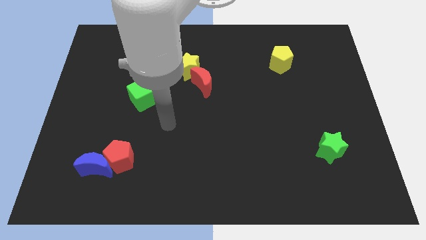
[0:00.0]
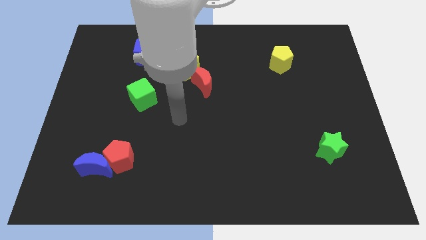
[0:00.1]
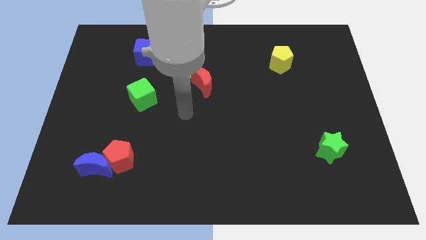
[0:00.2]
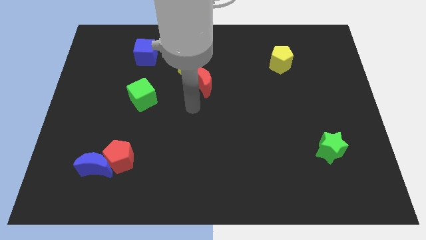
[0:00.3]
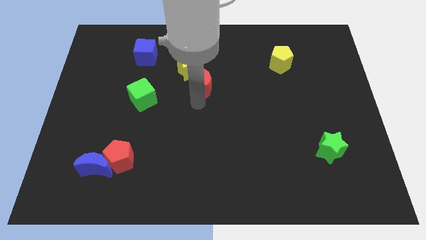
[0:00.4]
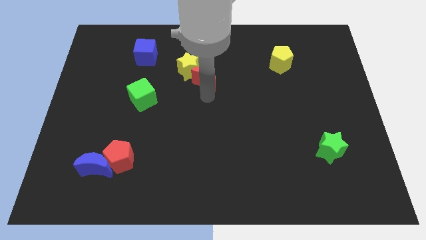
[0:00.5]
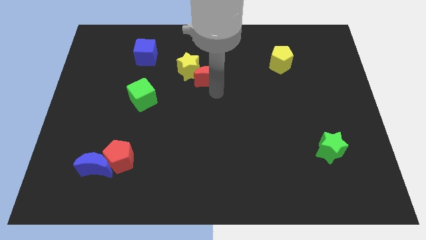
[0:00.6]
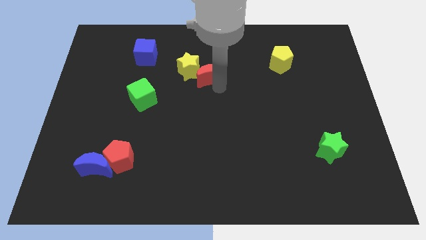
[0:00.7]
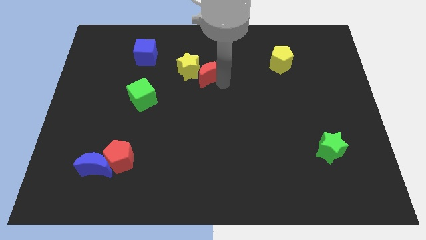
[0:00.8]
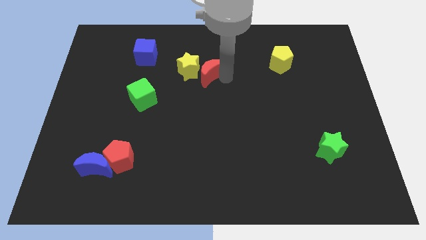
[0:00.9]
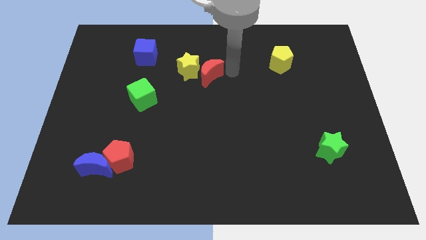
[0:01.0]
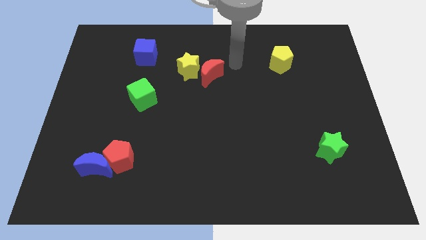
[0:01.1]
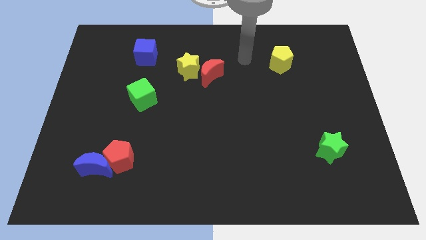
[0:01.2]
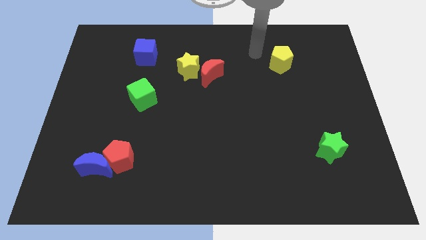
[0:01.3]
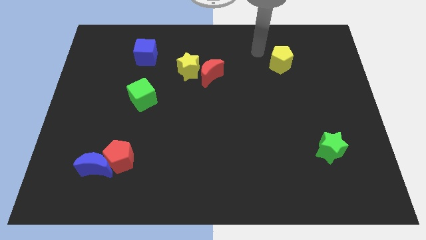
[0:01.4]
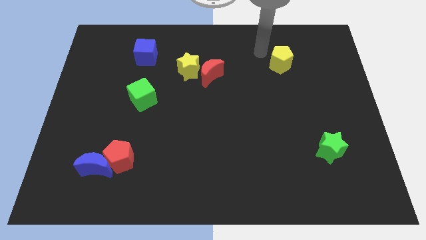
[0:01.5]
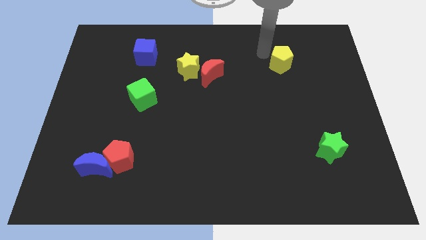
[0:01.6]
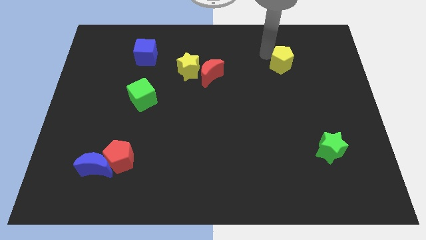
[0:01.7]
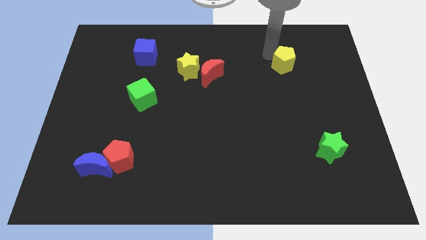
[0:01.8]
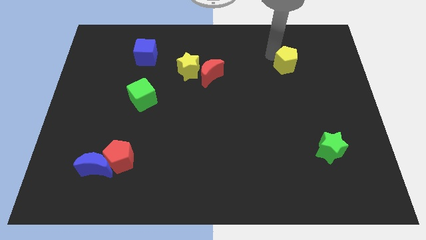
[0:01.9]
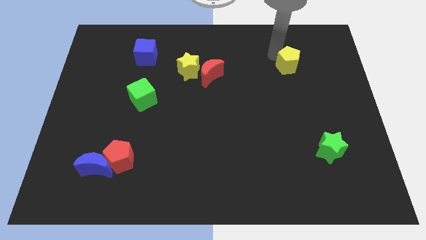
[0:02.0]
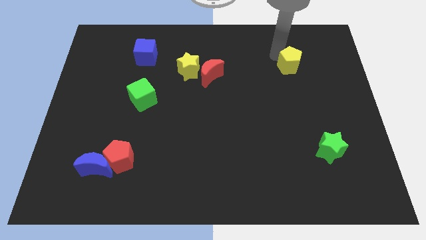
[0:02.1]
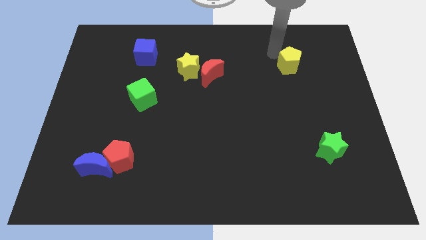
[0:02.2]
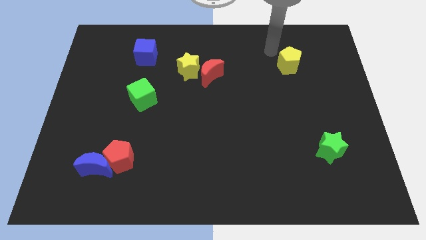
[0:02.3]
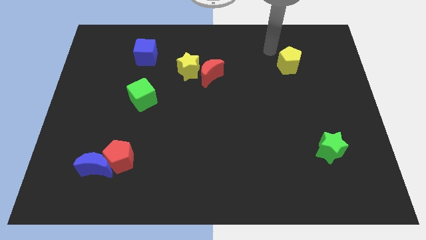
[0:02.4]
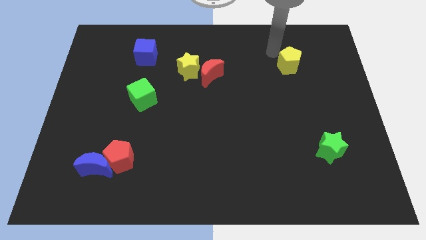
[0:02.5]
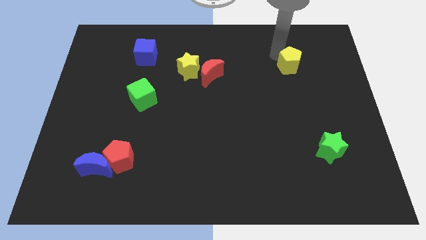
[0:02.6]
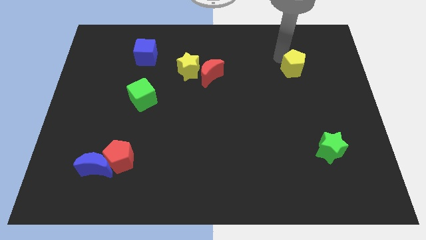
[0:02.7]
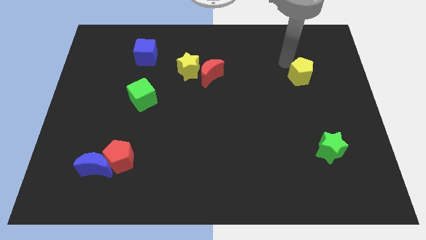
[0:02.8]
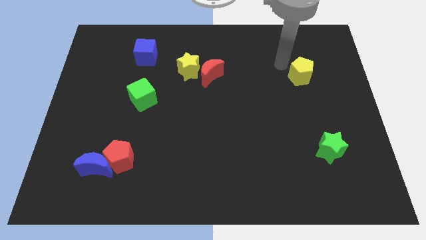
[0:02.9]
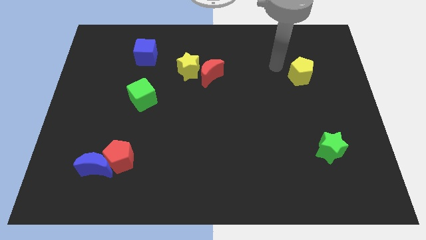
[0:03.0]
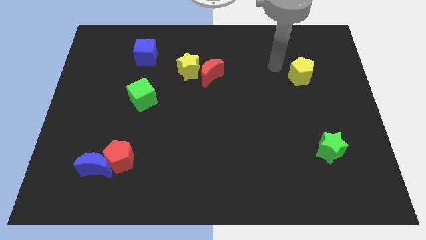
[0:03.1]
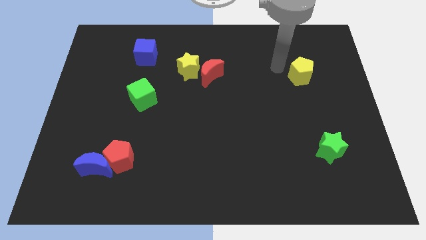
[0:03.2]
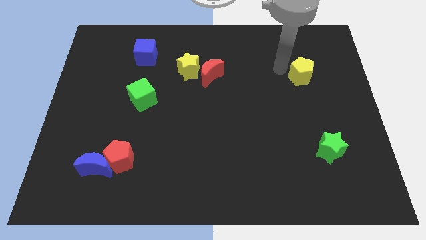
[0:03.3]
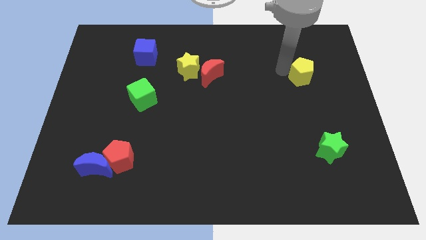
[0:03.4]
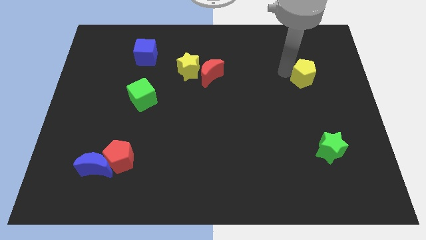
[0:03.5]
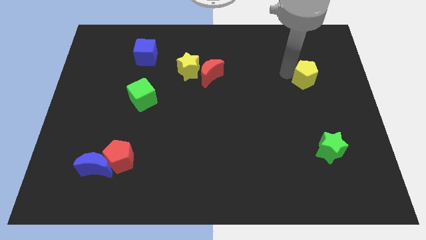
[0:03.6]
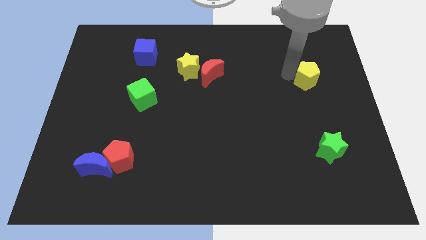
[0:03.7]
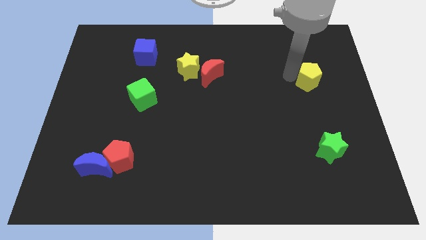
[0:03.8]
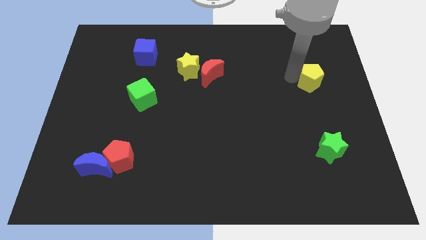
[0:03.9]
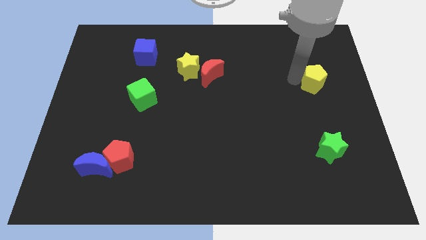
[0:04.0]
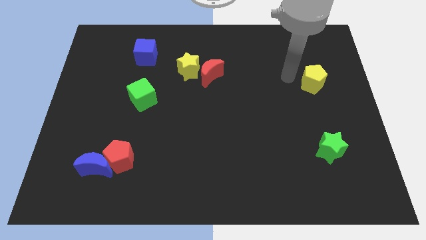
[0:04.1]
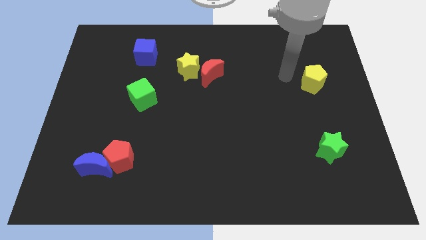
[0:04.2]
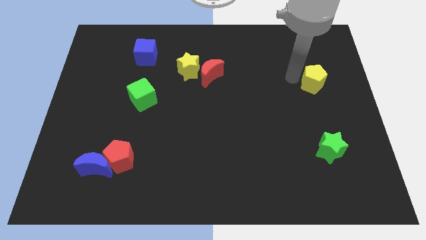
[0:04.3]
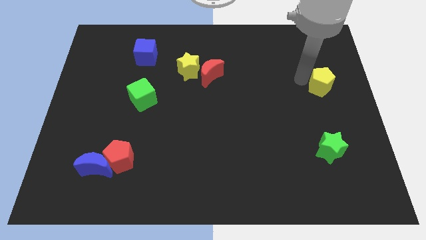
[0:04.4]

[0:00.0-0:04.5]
move the yellow pentagon to the right side of the board

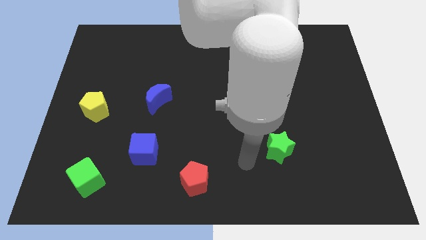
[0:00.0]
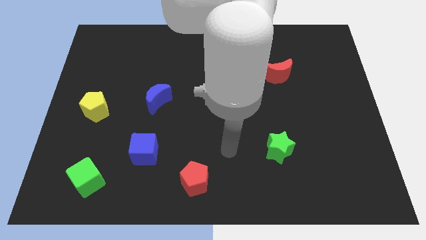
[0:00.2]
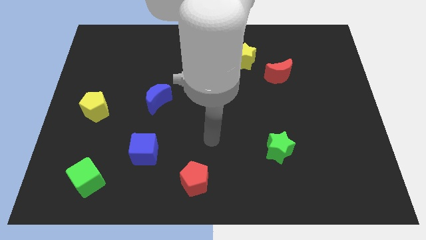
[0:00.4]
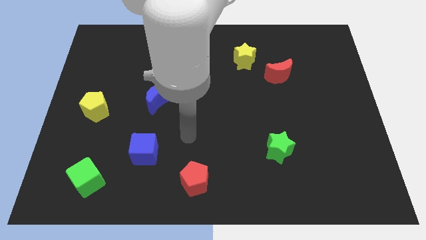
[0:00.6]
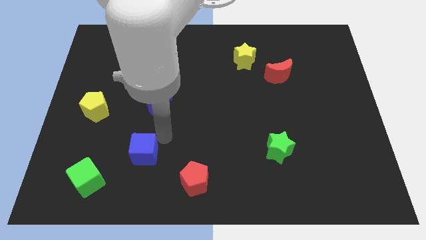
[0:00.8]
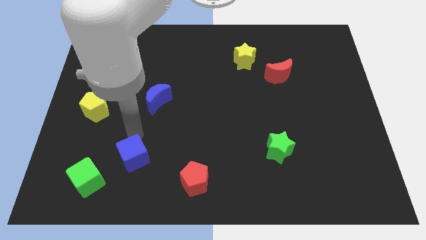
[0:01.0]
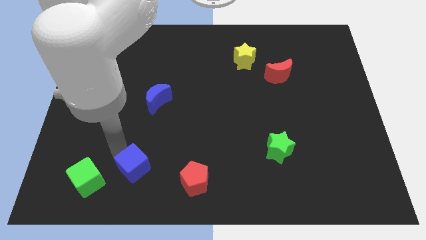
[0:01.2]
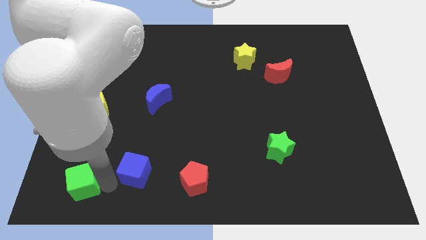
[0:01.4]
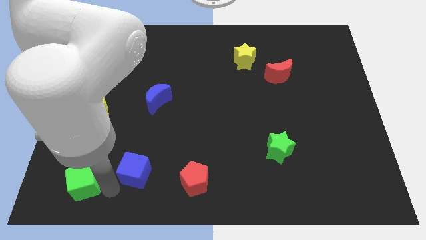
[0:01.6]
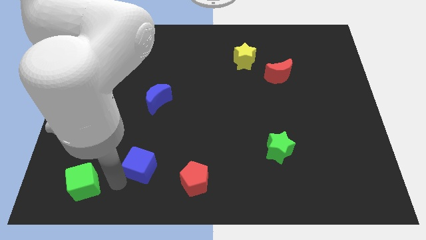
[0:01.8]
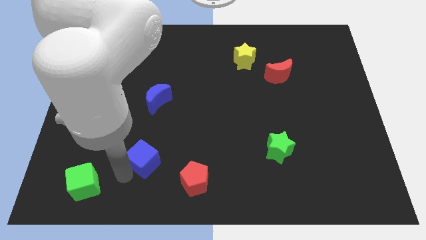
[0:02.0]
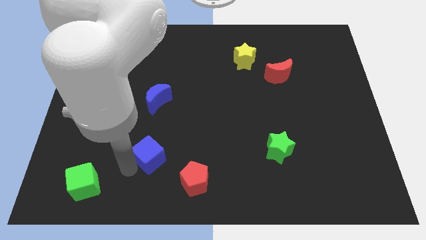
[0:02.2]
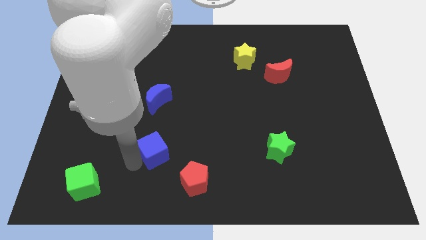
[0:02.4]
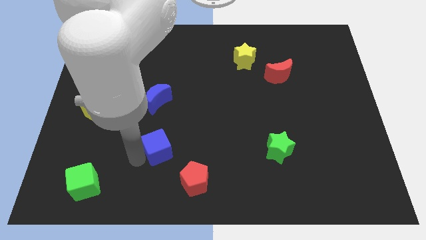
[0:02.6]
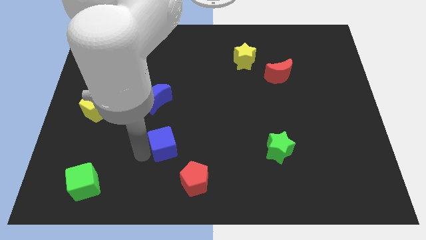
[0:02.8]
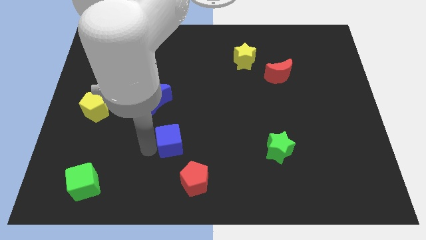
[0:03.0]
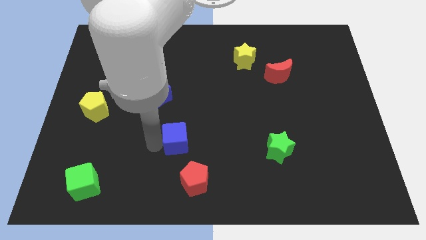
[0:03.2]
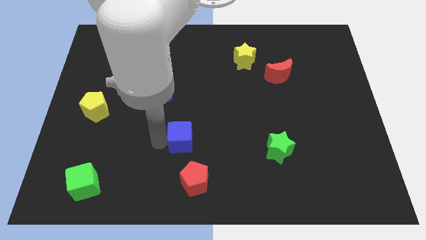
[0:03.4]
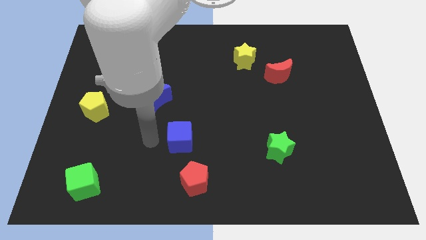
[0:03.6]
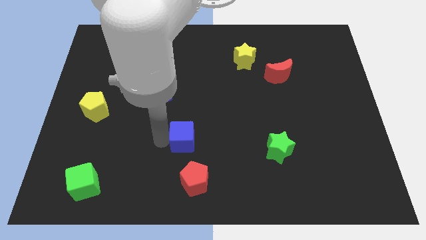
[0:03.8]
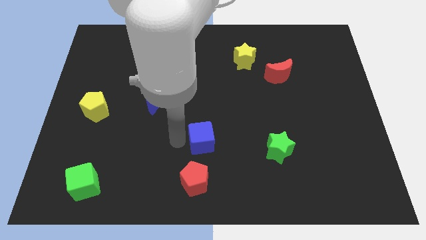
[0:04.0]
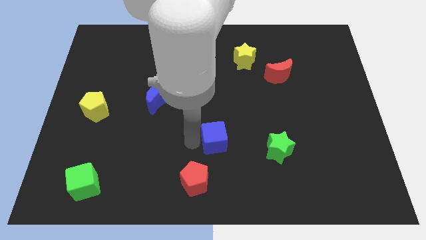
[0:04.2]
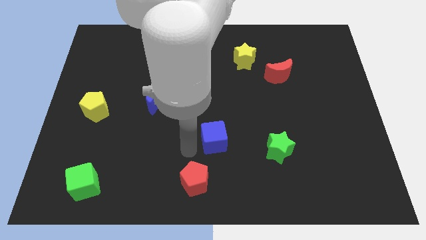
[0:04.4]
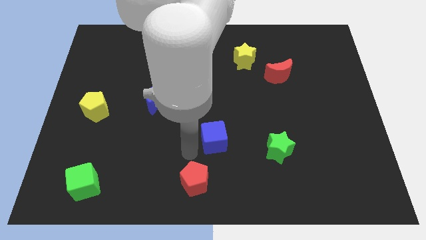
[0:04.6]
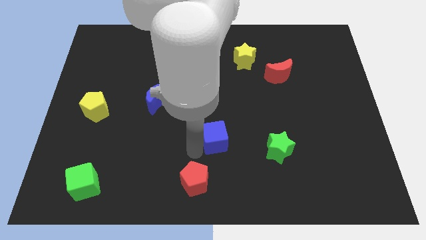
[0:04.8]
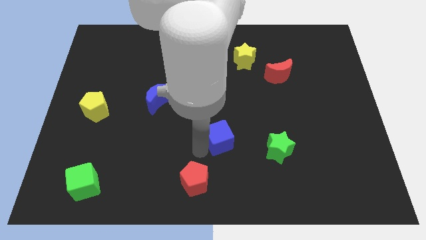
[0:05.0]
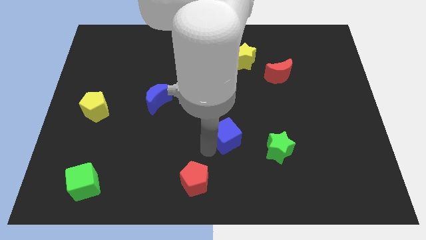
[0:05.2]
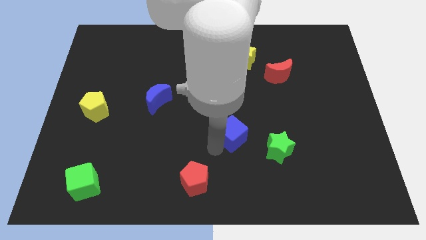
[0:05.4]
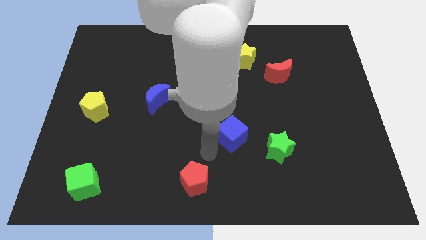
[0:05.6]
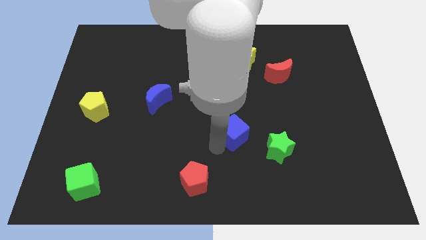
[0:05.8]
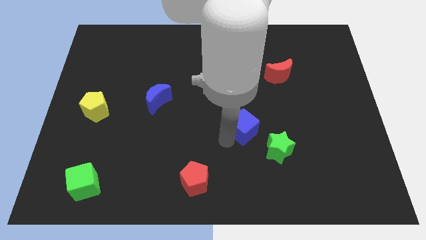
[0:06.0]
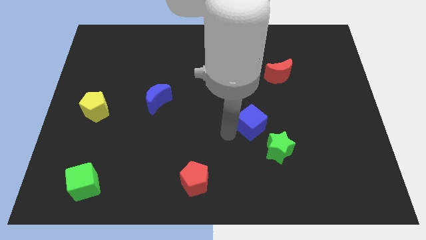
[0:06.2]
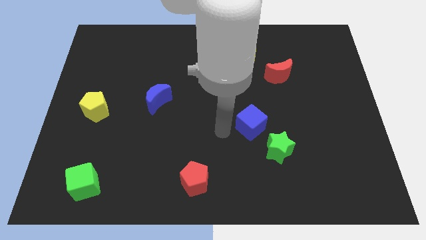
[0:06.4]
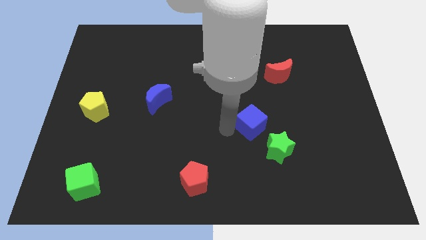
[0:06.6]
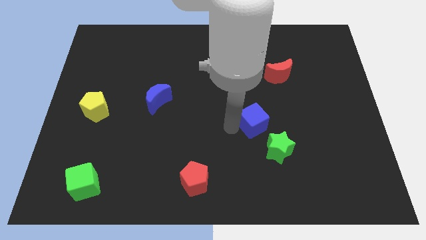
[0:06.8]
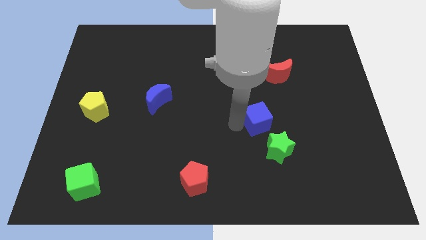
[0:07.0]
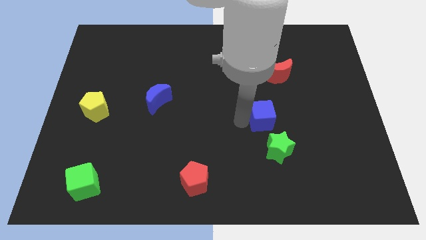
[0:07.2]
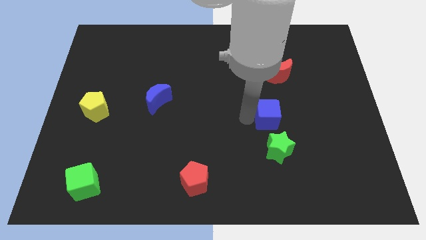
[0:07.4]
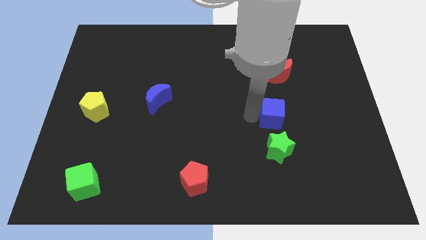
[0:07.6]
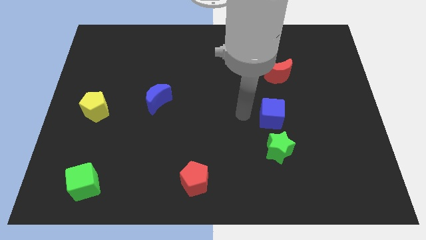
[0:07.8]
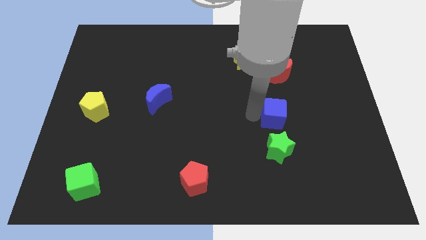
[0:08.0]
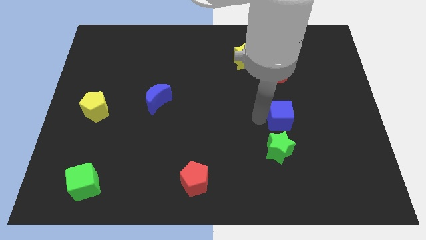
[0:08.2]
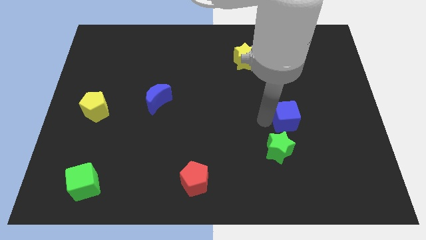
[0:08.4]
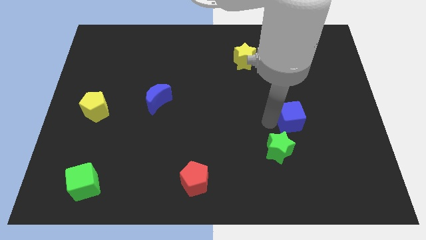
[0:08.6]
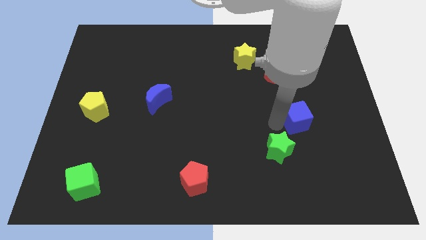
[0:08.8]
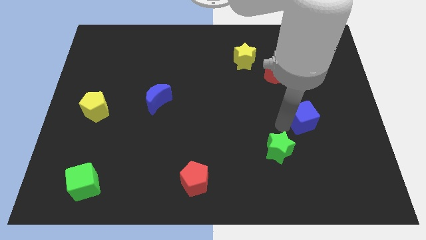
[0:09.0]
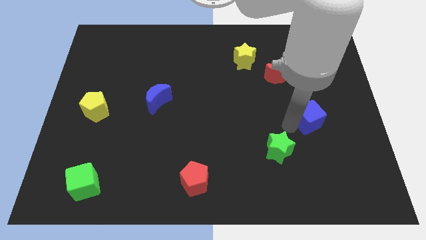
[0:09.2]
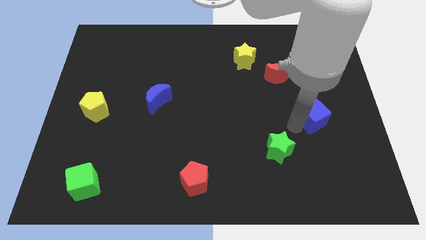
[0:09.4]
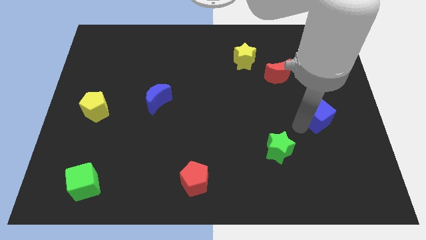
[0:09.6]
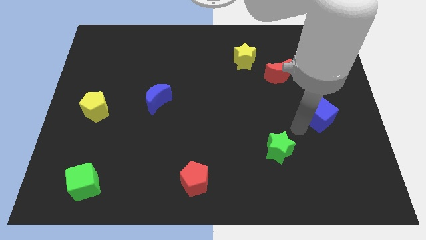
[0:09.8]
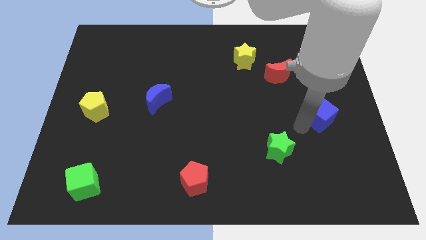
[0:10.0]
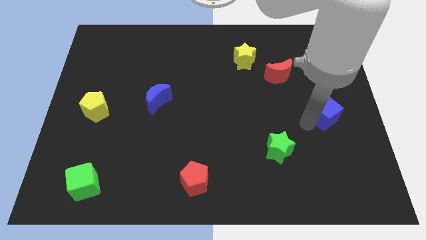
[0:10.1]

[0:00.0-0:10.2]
slide the blue cube to the right side of the board
